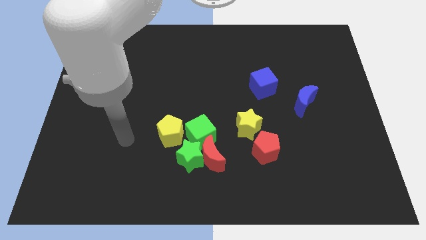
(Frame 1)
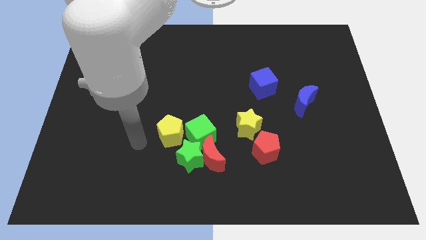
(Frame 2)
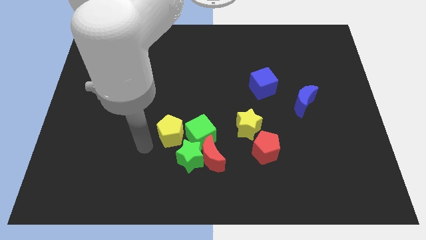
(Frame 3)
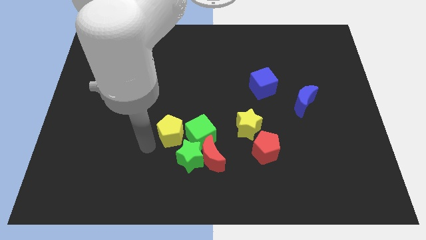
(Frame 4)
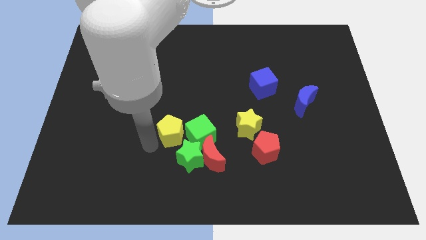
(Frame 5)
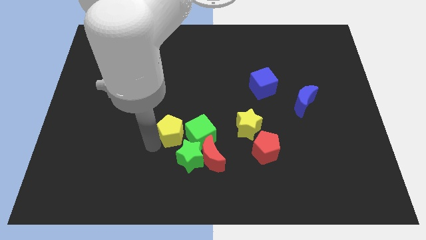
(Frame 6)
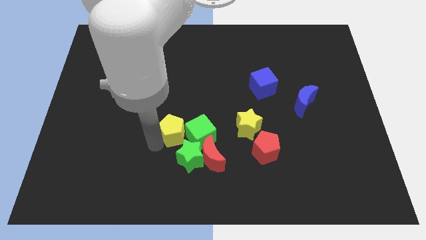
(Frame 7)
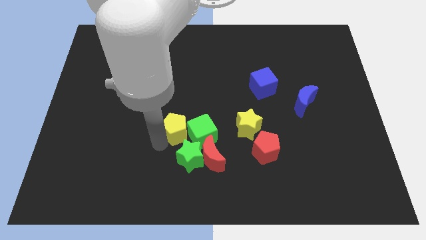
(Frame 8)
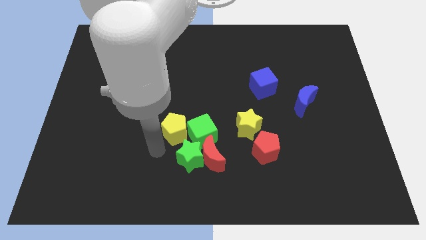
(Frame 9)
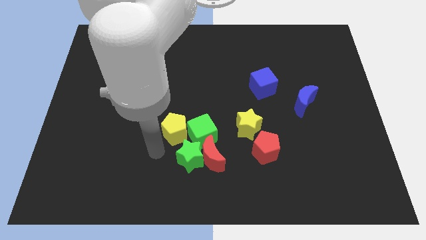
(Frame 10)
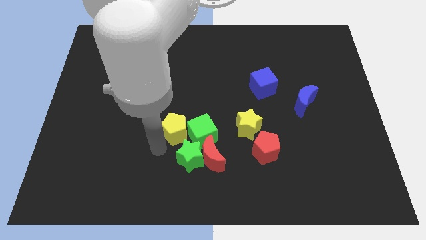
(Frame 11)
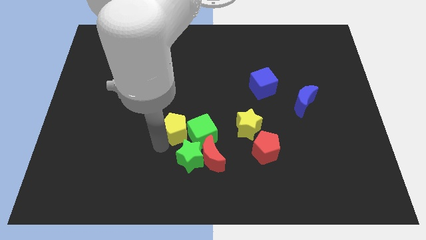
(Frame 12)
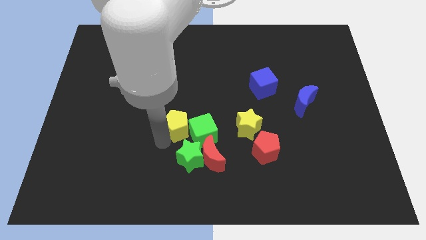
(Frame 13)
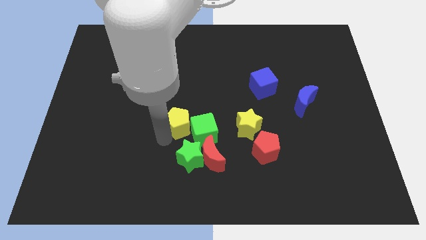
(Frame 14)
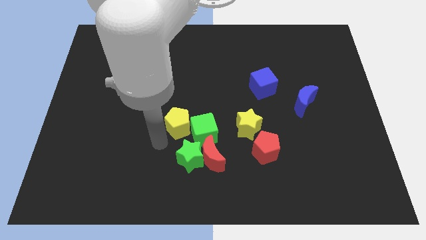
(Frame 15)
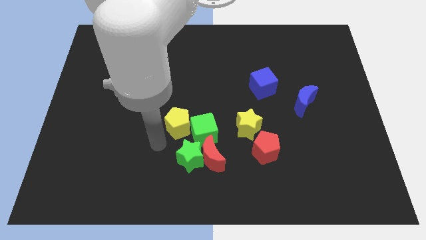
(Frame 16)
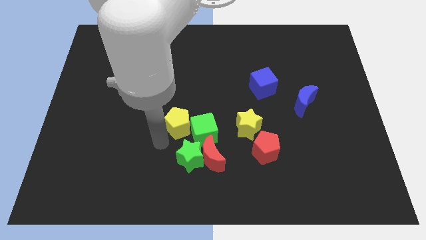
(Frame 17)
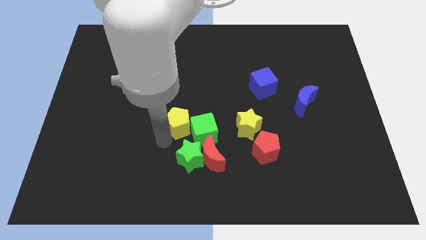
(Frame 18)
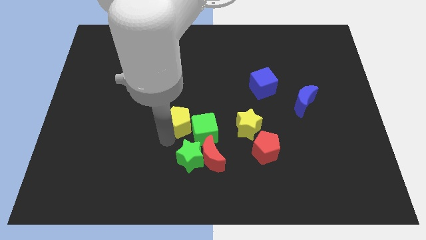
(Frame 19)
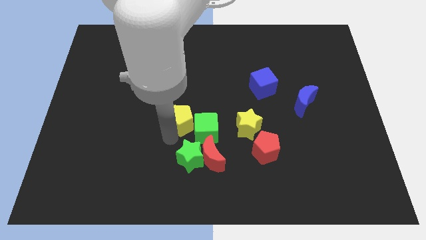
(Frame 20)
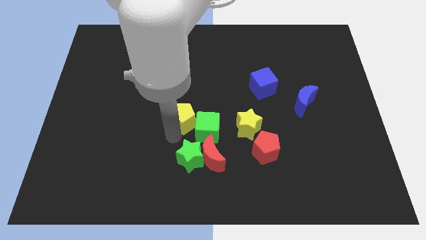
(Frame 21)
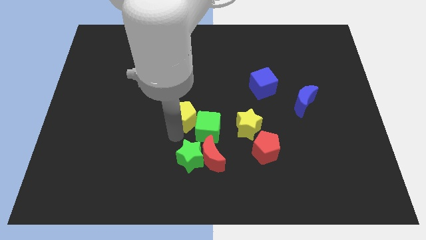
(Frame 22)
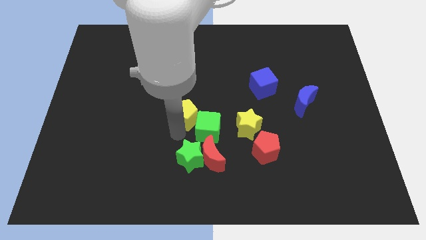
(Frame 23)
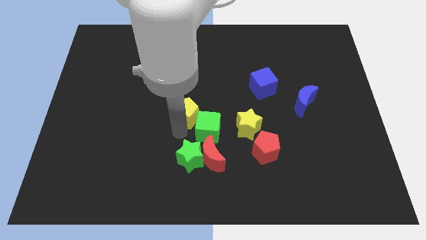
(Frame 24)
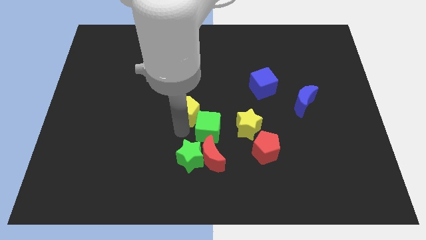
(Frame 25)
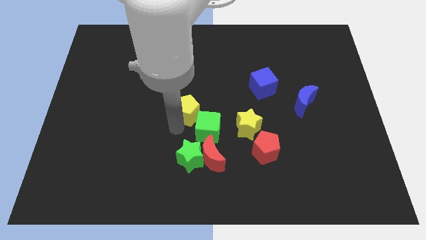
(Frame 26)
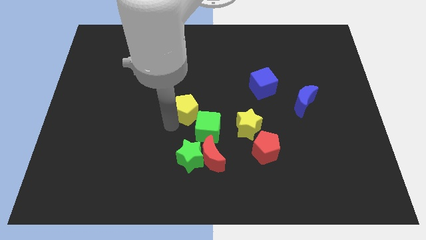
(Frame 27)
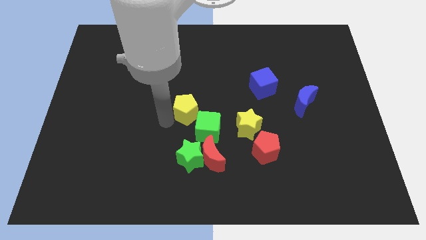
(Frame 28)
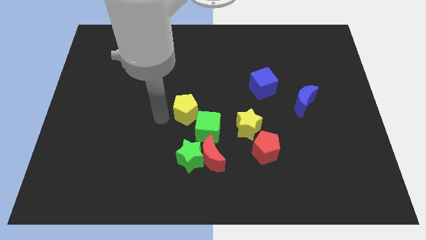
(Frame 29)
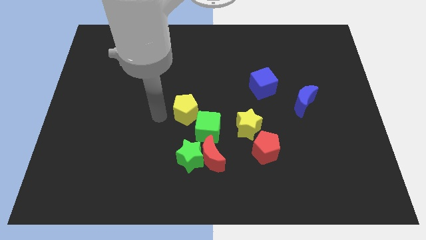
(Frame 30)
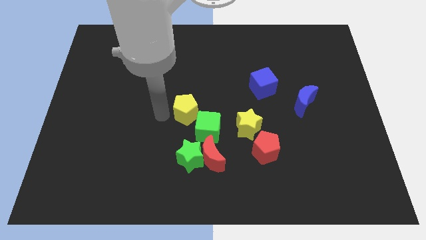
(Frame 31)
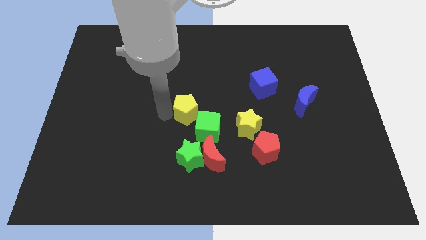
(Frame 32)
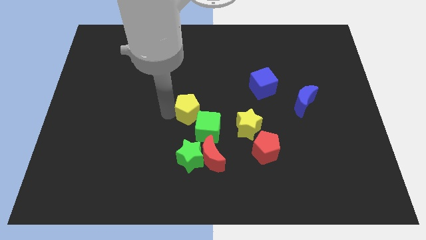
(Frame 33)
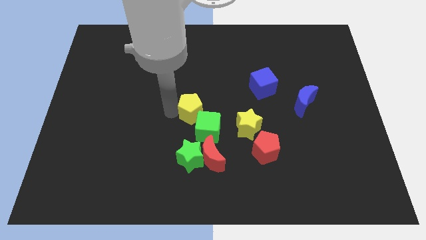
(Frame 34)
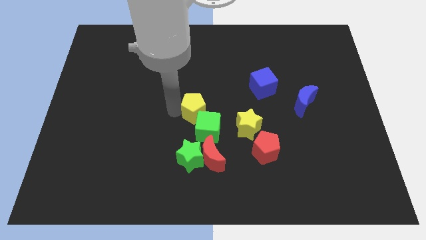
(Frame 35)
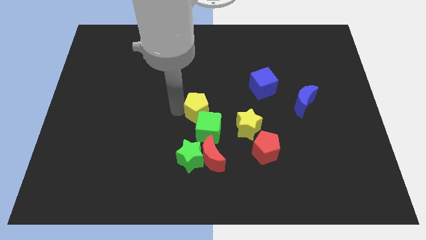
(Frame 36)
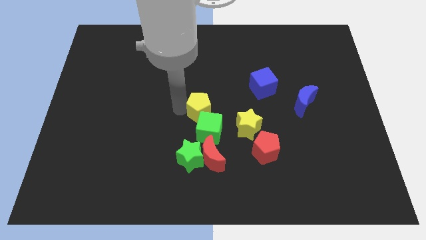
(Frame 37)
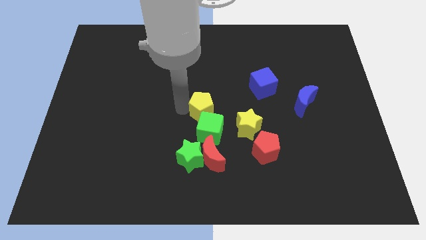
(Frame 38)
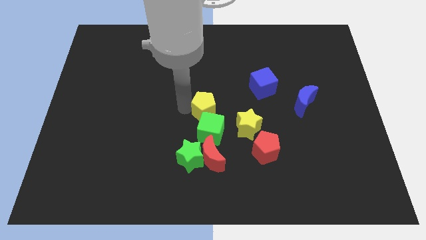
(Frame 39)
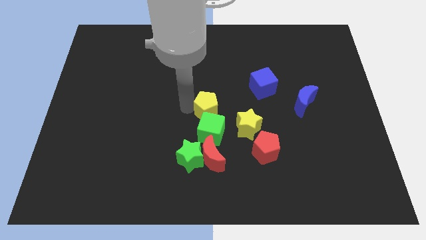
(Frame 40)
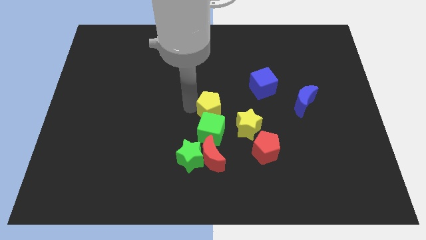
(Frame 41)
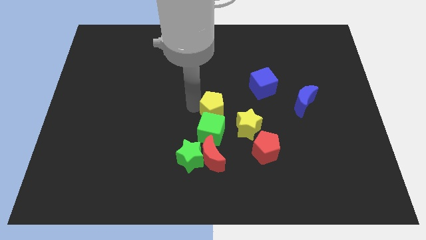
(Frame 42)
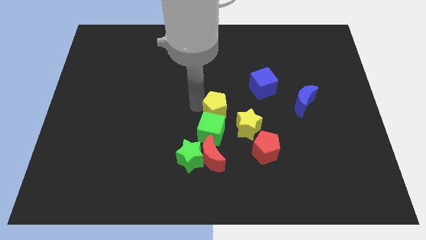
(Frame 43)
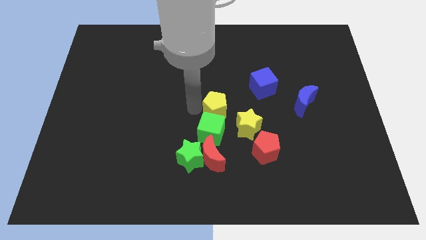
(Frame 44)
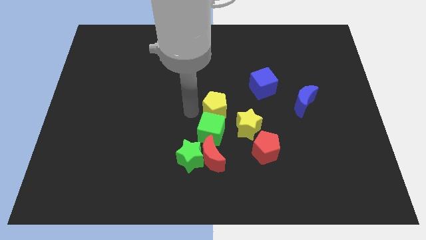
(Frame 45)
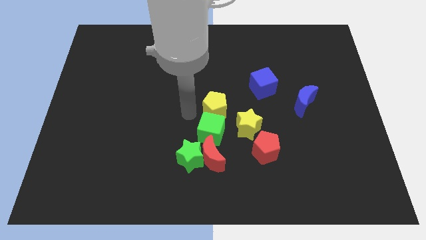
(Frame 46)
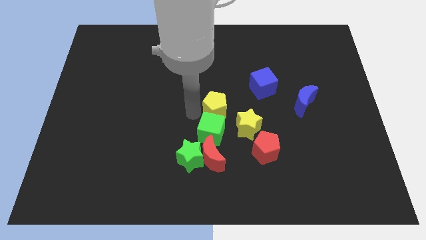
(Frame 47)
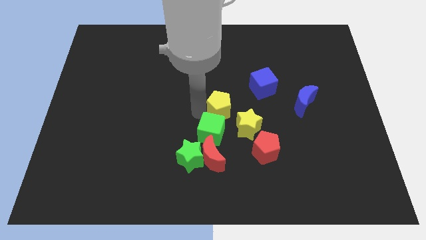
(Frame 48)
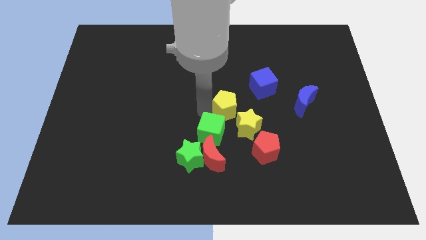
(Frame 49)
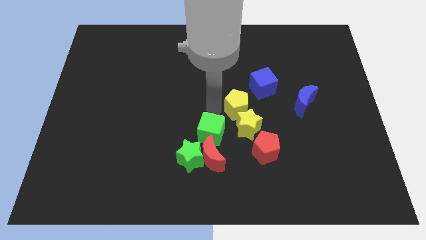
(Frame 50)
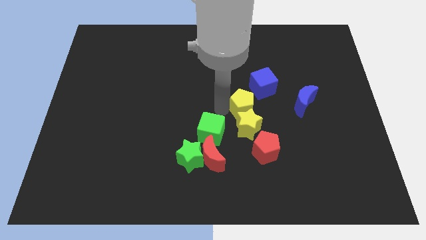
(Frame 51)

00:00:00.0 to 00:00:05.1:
push the yellow pentagon to the top right side of the yellow star

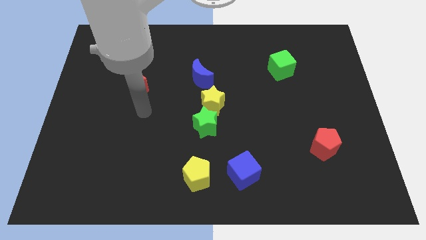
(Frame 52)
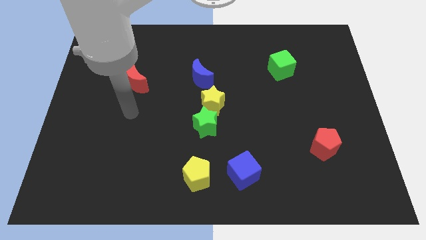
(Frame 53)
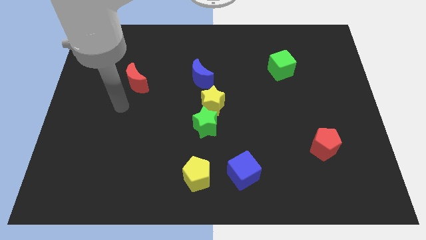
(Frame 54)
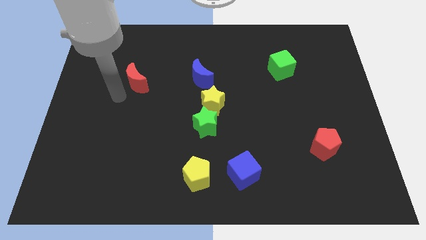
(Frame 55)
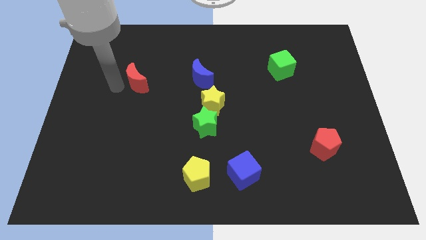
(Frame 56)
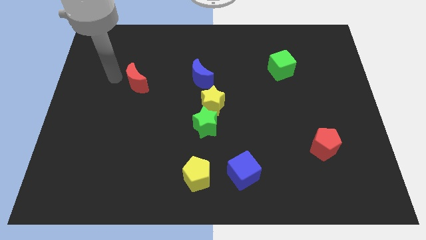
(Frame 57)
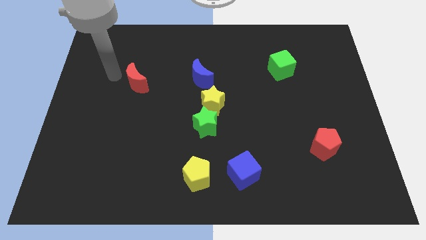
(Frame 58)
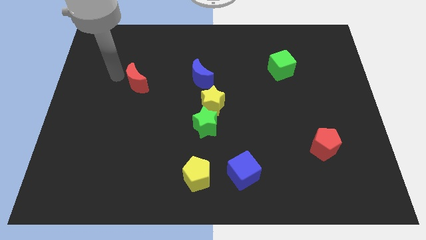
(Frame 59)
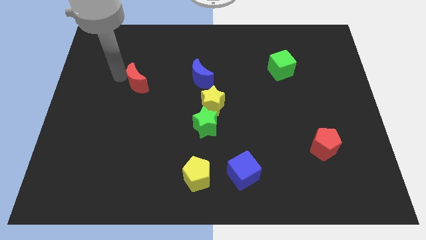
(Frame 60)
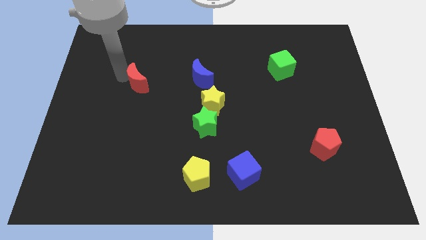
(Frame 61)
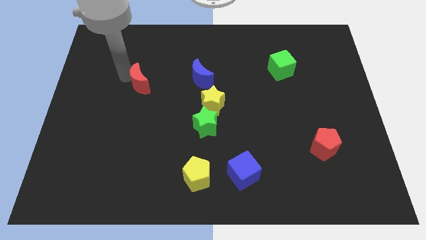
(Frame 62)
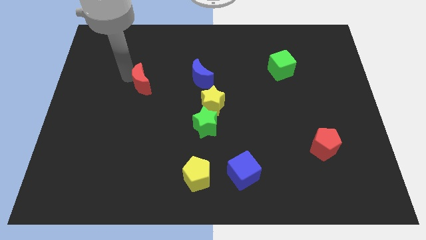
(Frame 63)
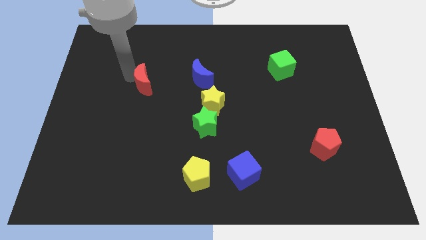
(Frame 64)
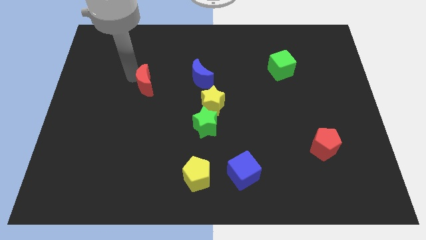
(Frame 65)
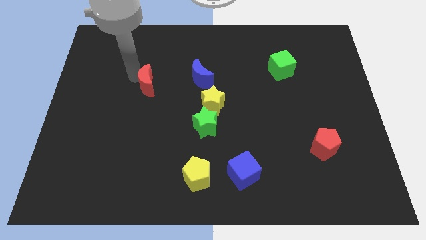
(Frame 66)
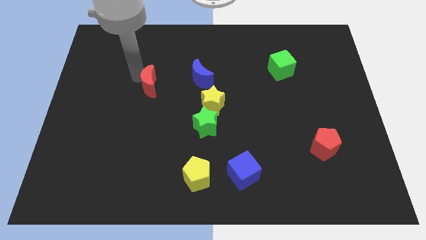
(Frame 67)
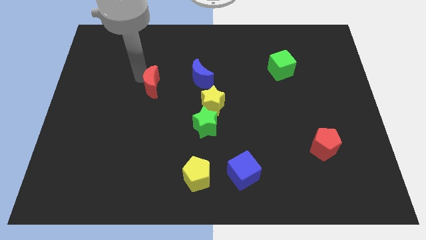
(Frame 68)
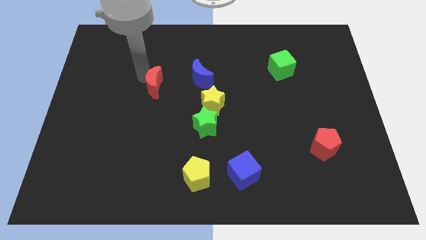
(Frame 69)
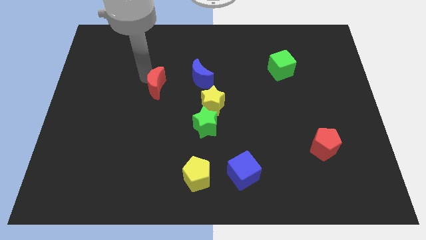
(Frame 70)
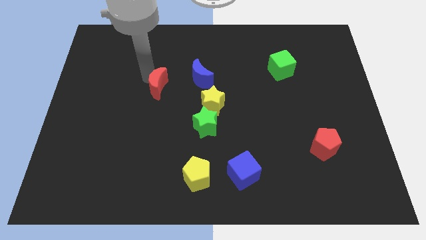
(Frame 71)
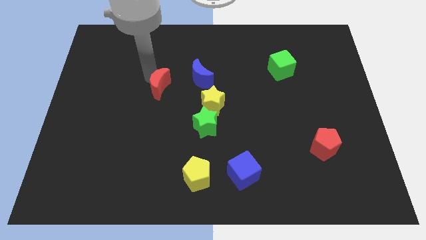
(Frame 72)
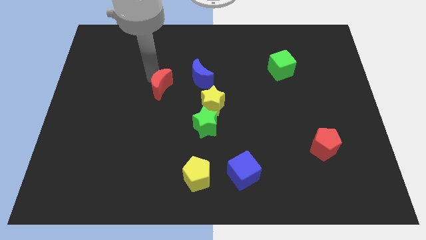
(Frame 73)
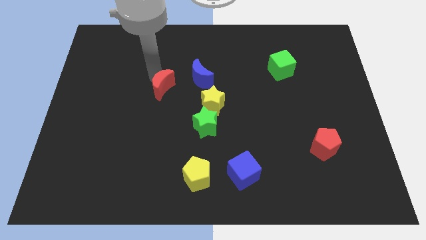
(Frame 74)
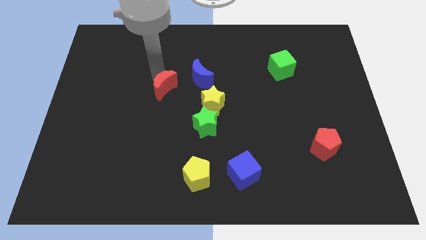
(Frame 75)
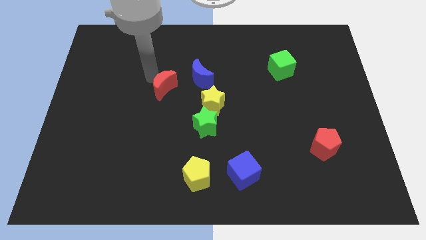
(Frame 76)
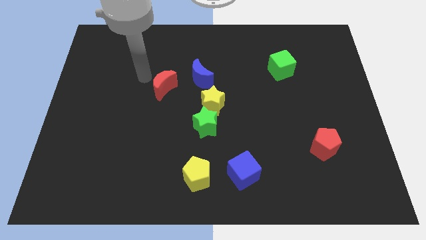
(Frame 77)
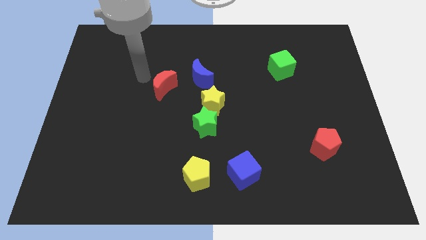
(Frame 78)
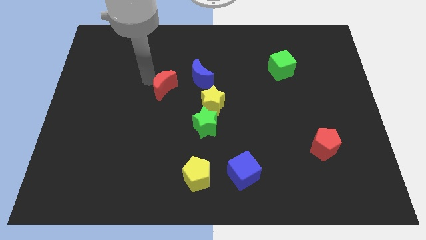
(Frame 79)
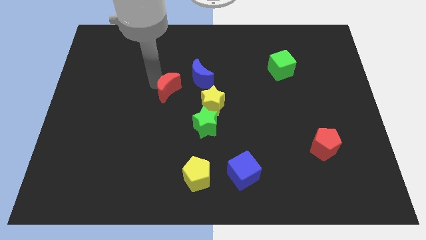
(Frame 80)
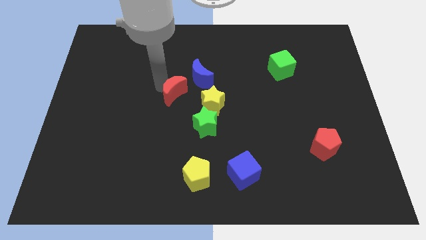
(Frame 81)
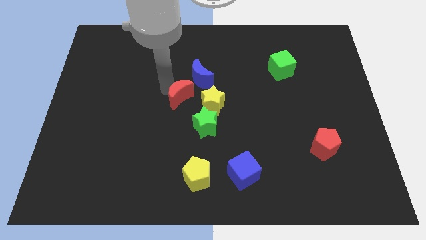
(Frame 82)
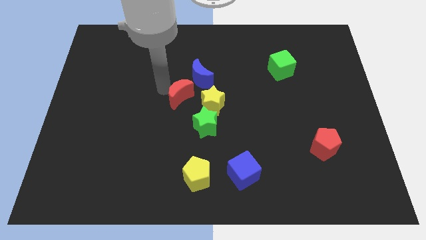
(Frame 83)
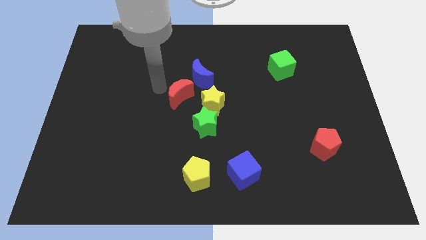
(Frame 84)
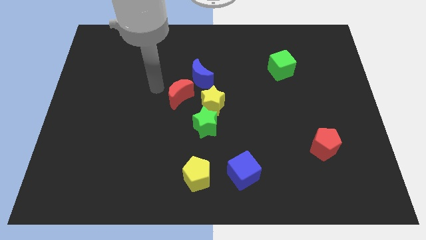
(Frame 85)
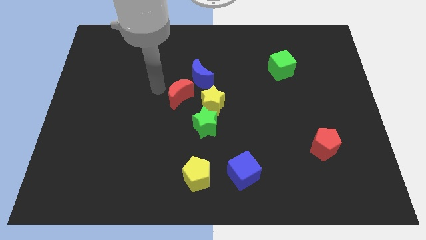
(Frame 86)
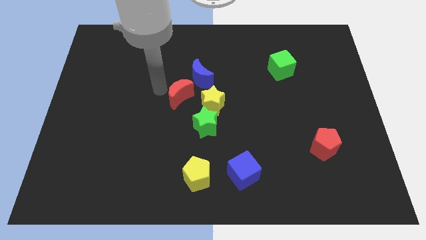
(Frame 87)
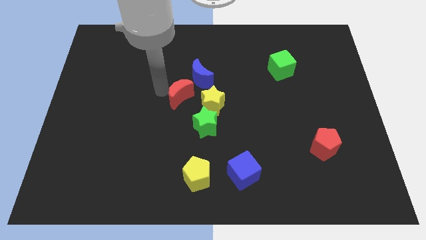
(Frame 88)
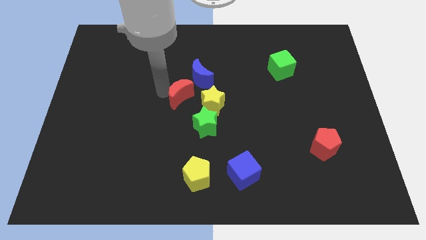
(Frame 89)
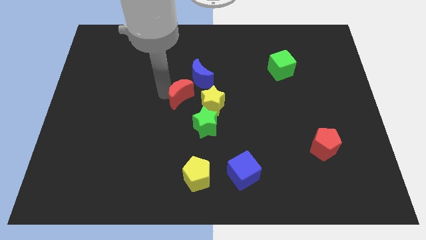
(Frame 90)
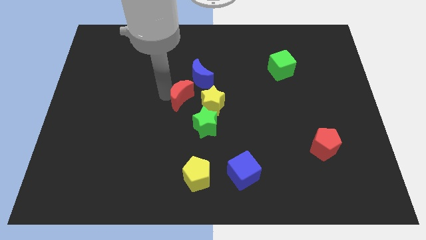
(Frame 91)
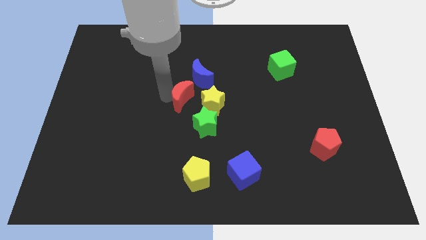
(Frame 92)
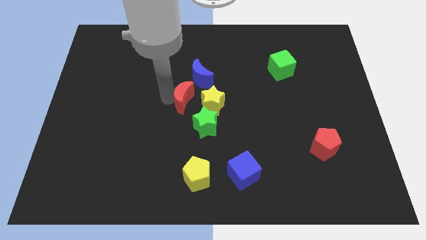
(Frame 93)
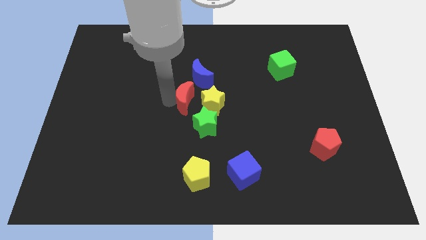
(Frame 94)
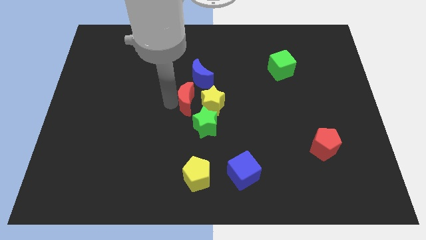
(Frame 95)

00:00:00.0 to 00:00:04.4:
put the red moon above the green star
